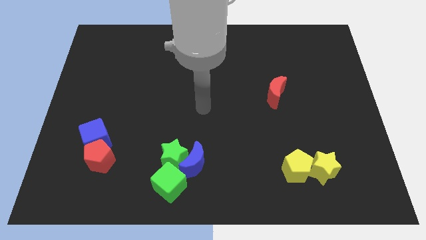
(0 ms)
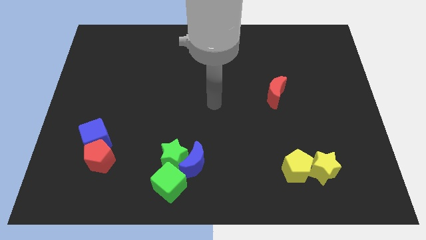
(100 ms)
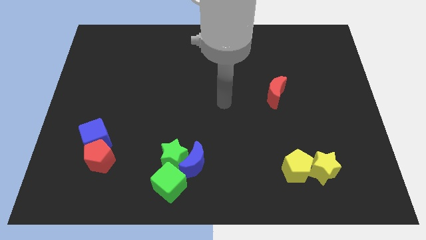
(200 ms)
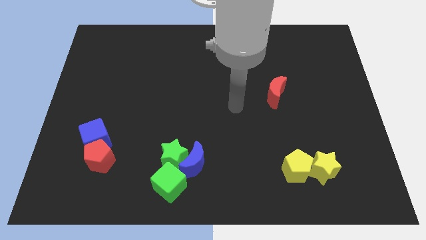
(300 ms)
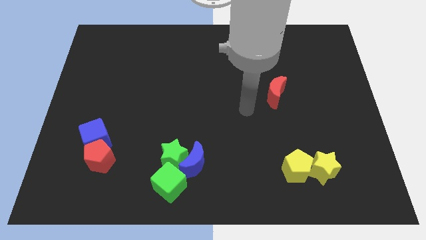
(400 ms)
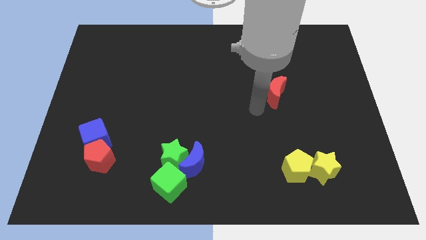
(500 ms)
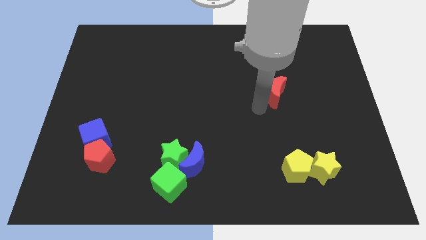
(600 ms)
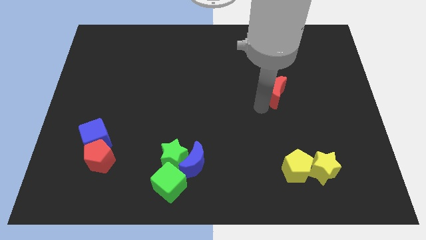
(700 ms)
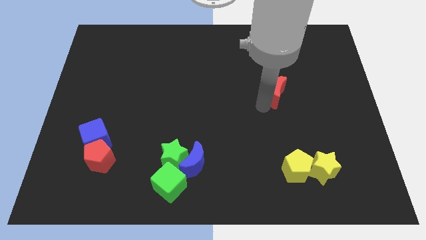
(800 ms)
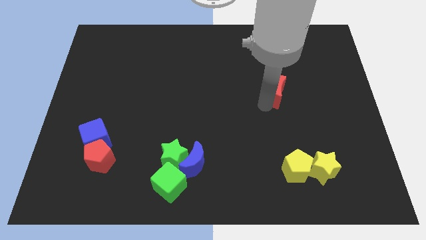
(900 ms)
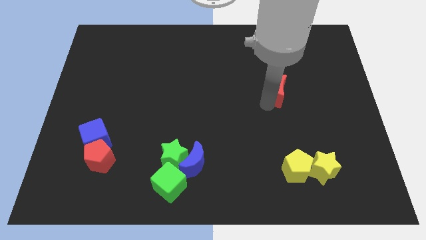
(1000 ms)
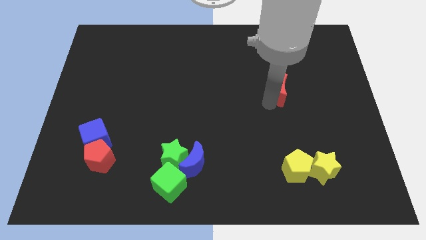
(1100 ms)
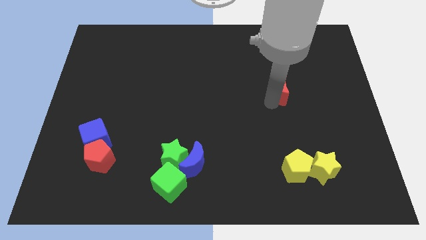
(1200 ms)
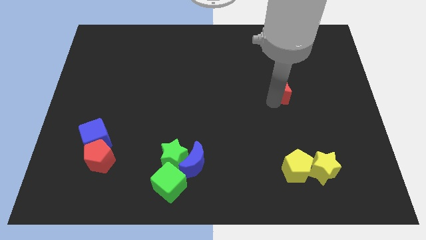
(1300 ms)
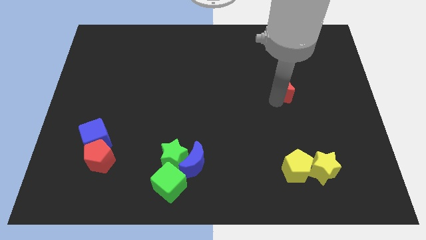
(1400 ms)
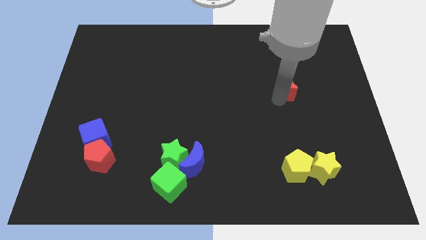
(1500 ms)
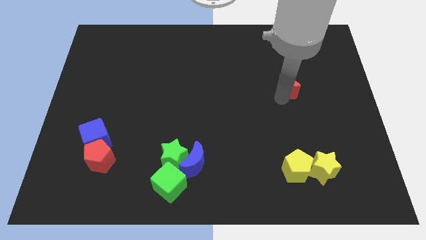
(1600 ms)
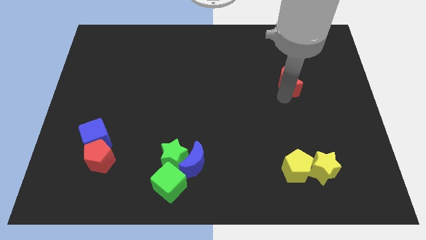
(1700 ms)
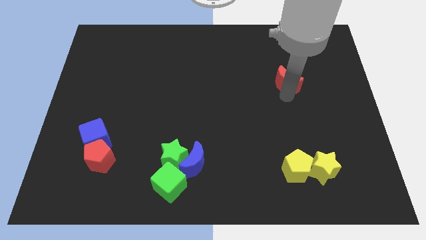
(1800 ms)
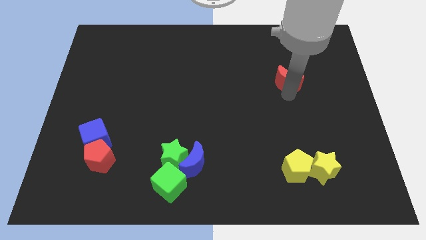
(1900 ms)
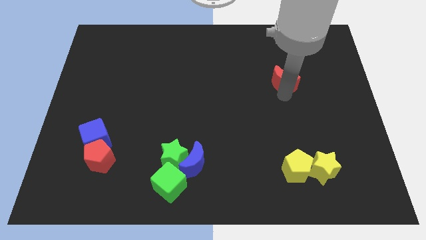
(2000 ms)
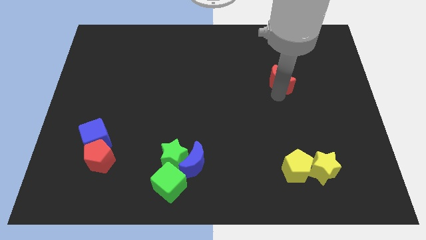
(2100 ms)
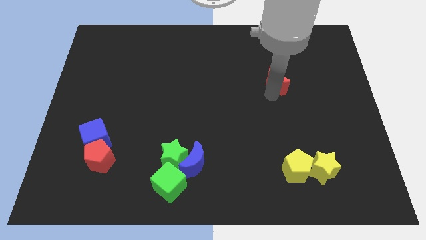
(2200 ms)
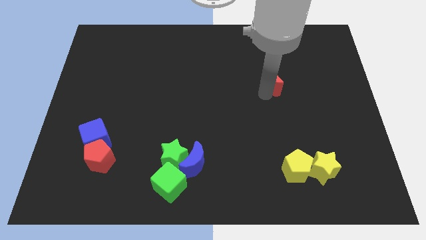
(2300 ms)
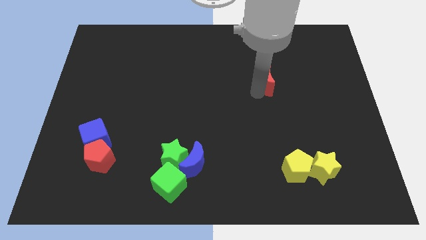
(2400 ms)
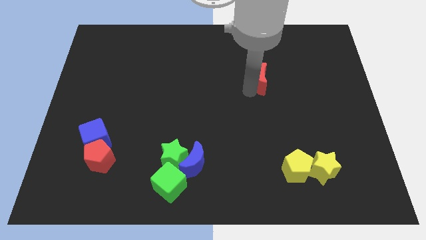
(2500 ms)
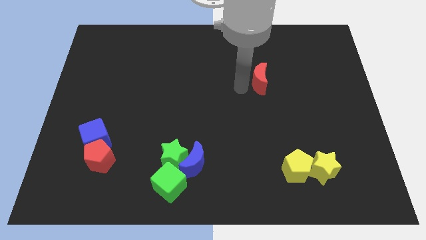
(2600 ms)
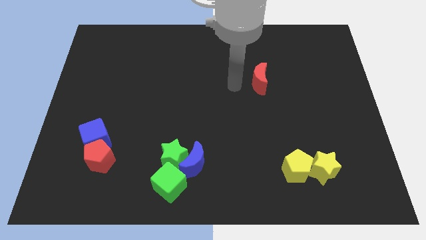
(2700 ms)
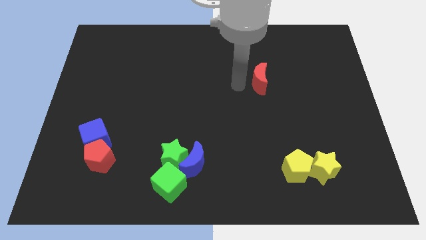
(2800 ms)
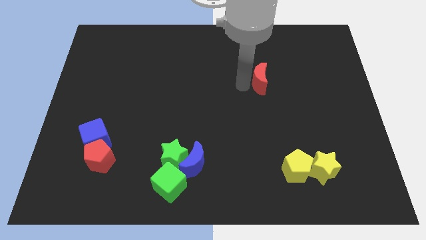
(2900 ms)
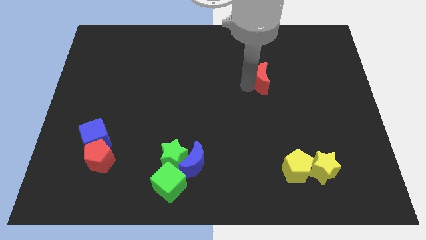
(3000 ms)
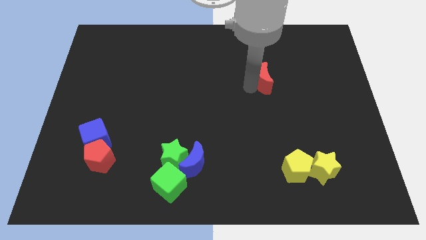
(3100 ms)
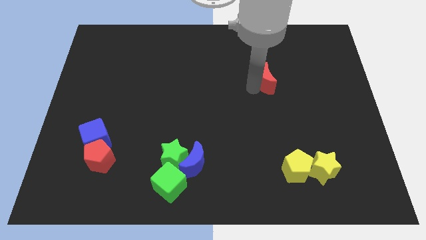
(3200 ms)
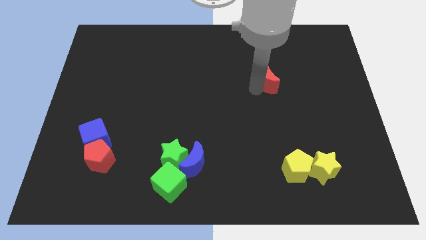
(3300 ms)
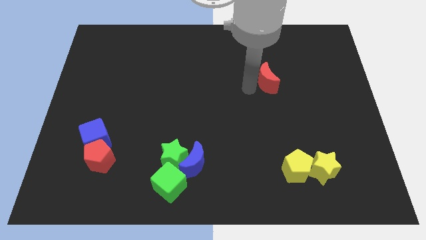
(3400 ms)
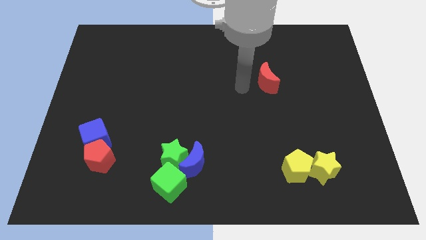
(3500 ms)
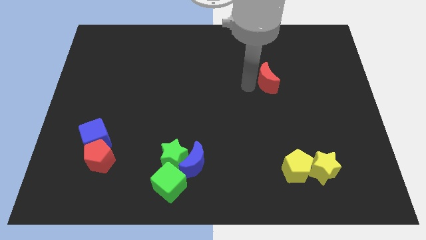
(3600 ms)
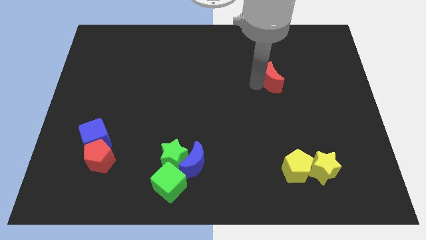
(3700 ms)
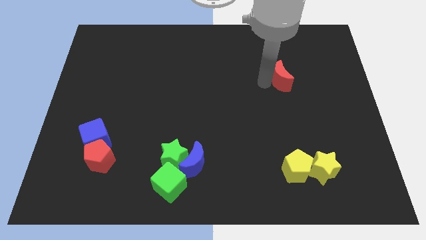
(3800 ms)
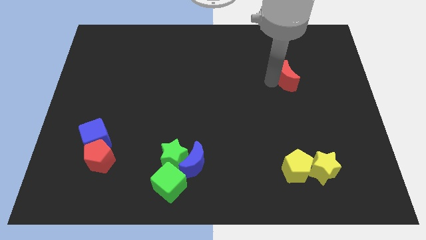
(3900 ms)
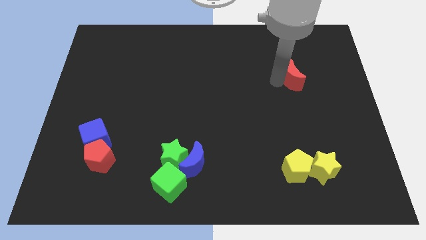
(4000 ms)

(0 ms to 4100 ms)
slightly slide the red moon up and right diagonally

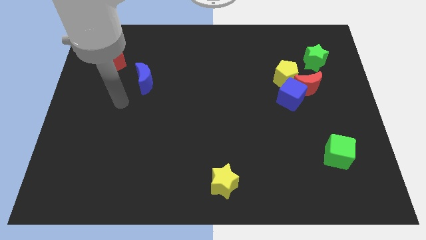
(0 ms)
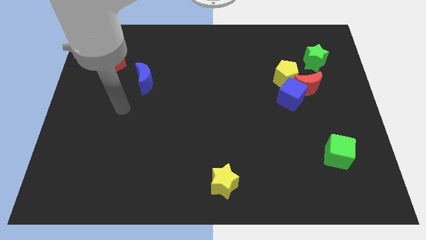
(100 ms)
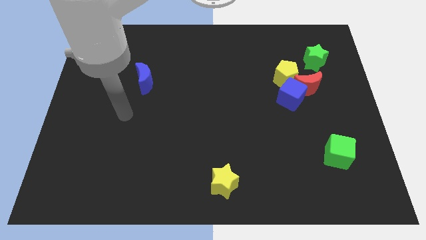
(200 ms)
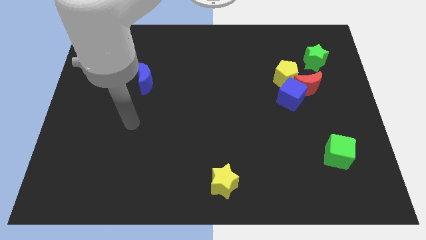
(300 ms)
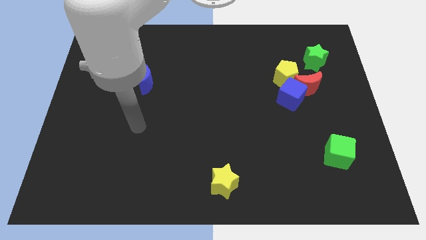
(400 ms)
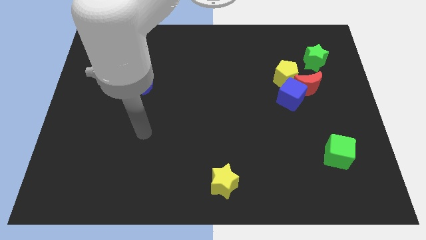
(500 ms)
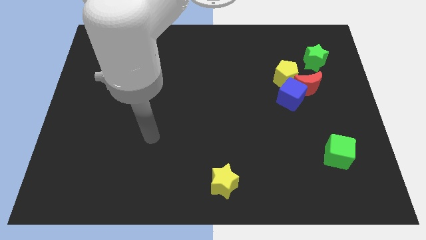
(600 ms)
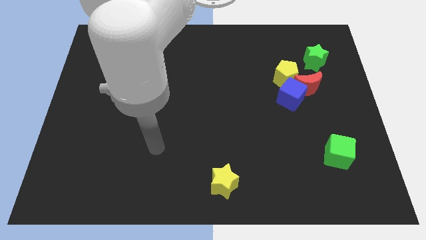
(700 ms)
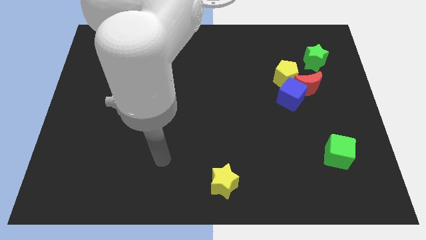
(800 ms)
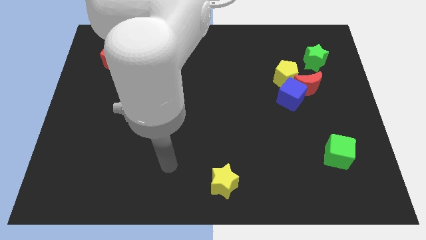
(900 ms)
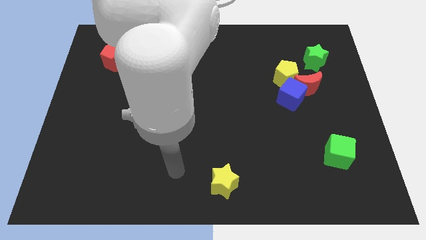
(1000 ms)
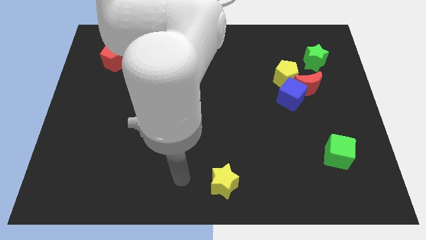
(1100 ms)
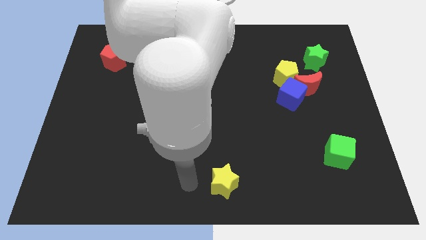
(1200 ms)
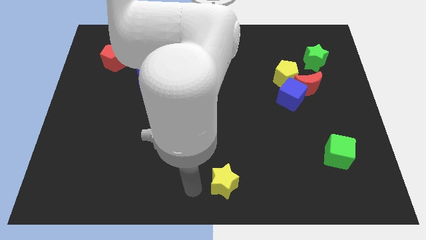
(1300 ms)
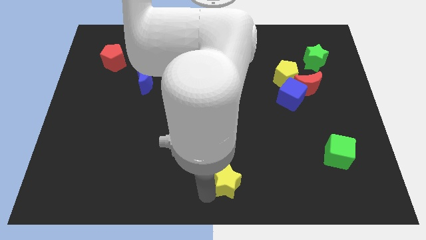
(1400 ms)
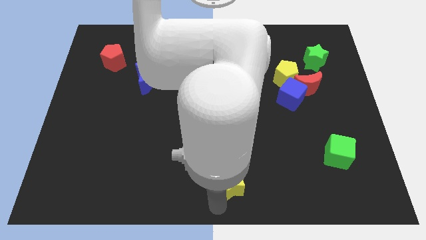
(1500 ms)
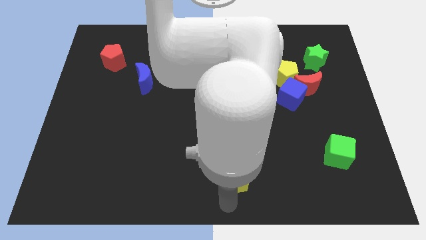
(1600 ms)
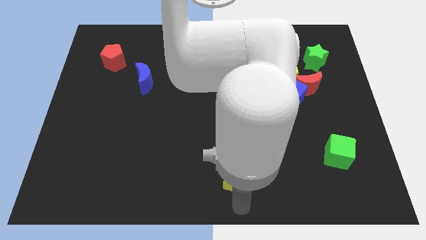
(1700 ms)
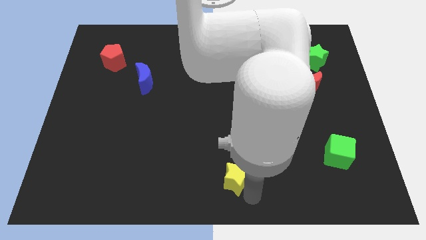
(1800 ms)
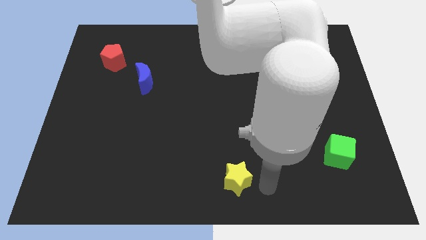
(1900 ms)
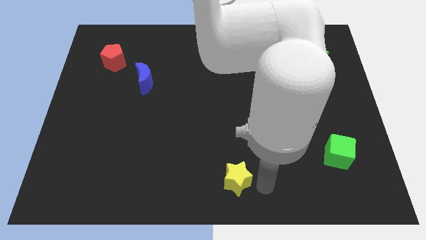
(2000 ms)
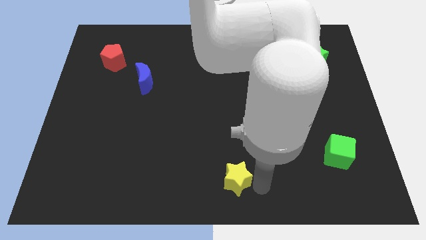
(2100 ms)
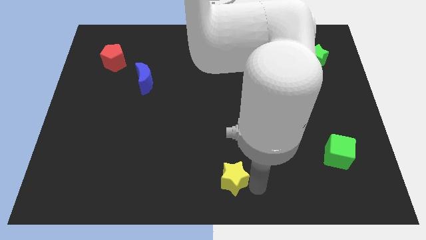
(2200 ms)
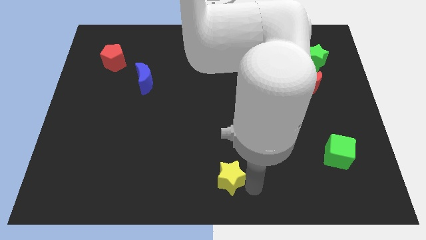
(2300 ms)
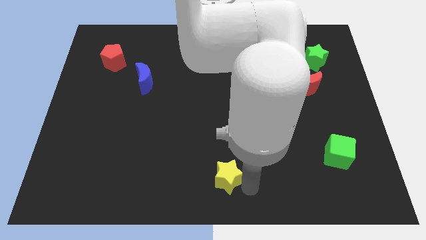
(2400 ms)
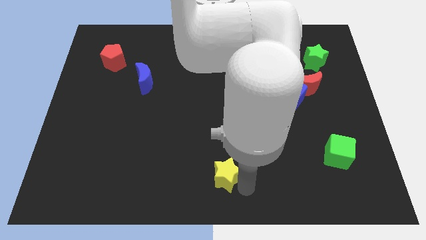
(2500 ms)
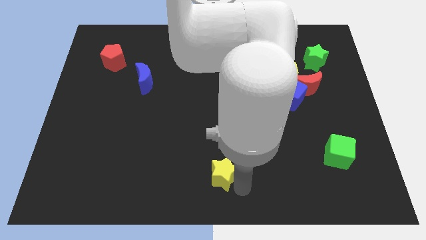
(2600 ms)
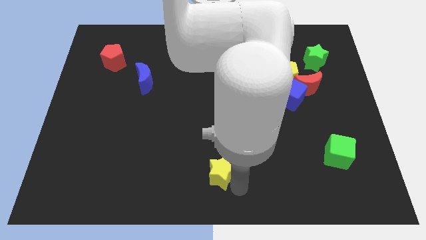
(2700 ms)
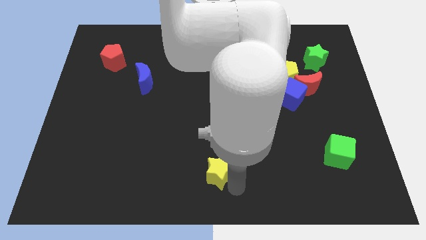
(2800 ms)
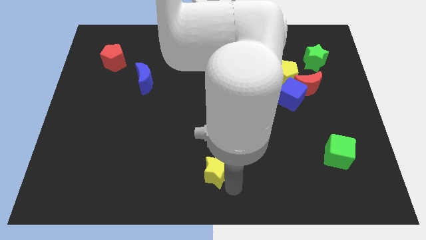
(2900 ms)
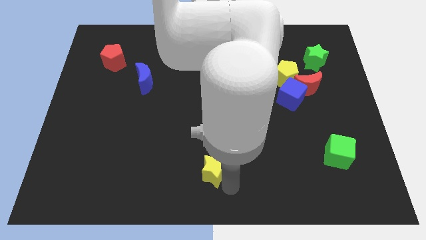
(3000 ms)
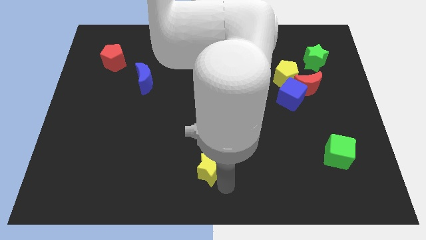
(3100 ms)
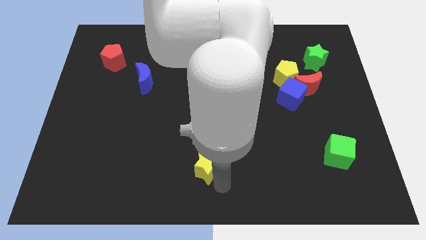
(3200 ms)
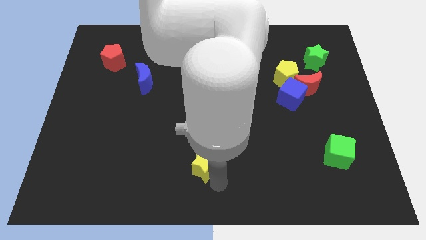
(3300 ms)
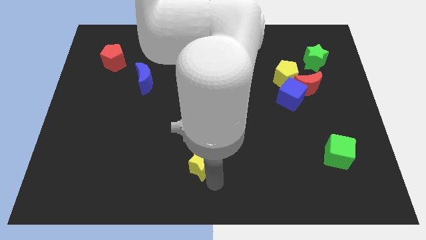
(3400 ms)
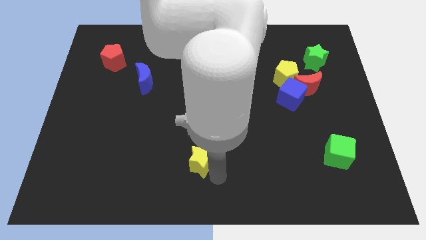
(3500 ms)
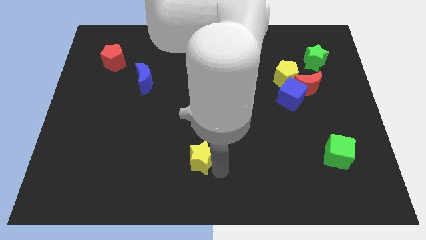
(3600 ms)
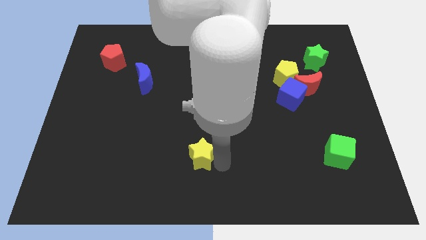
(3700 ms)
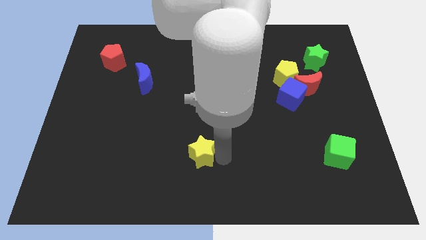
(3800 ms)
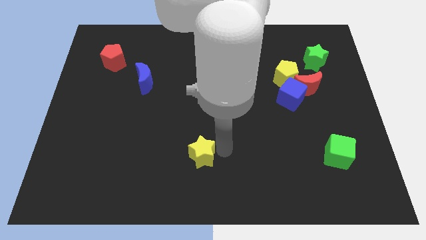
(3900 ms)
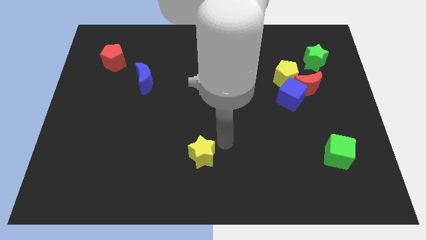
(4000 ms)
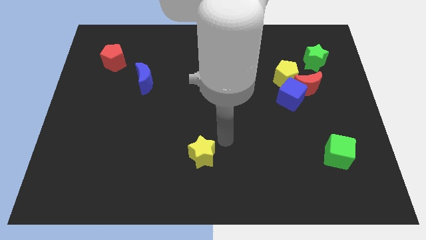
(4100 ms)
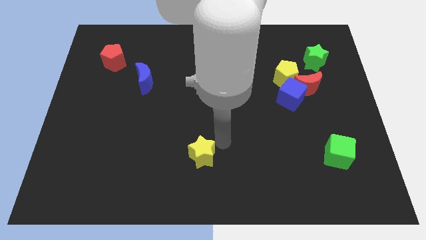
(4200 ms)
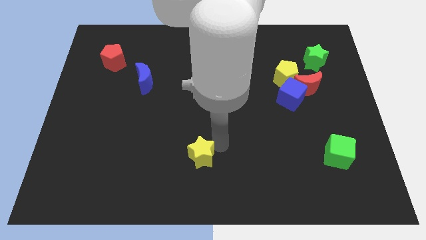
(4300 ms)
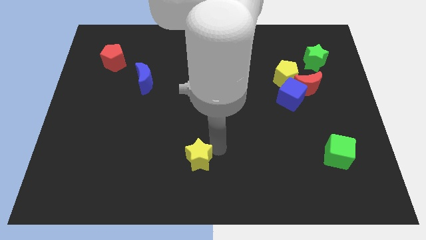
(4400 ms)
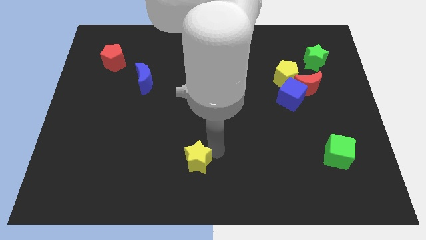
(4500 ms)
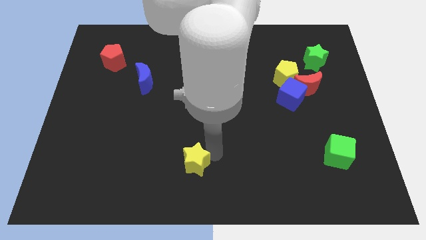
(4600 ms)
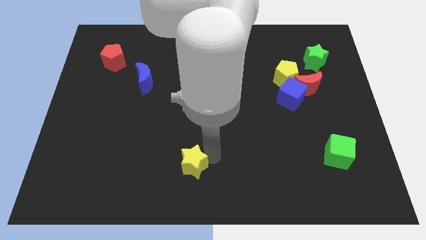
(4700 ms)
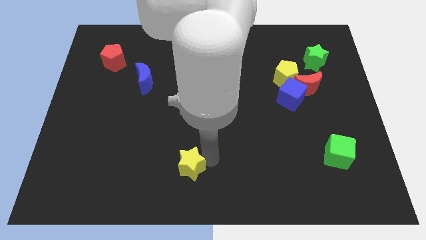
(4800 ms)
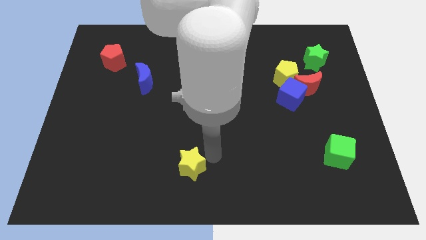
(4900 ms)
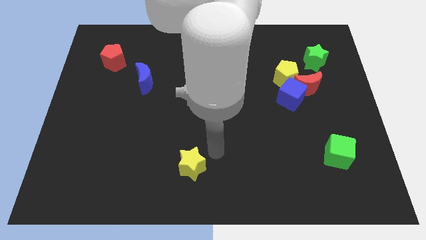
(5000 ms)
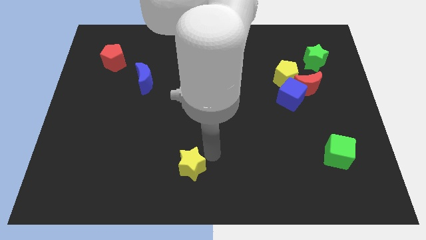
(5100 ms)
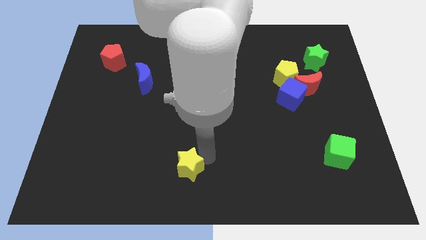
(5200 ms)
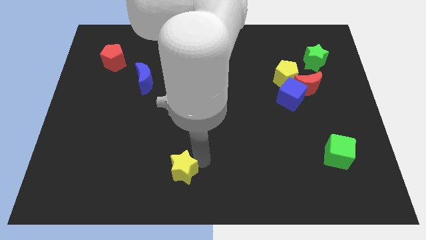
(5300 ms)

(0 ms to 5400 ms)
slightly push the yellow star left
